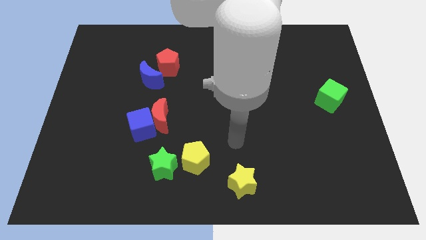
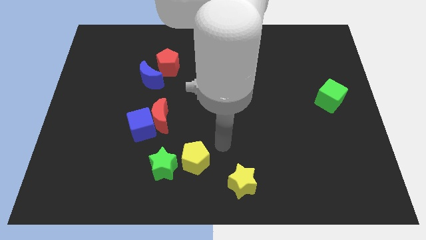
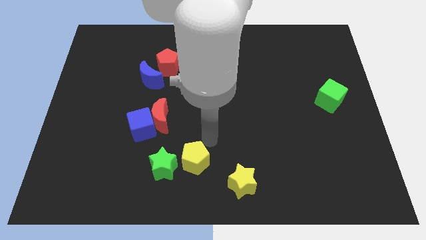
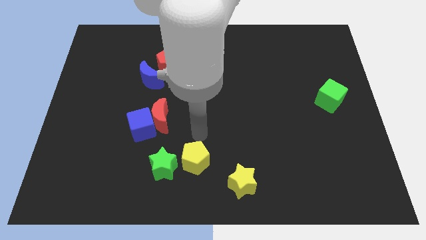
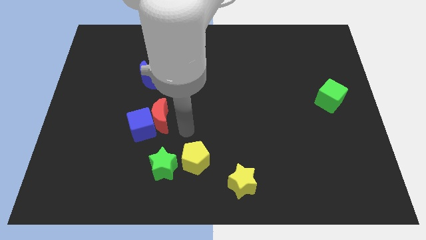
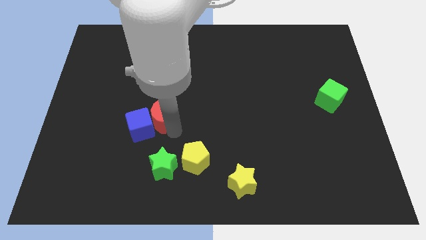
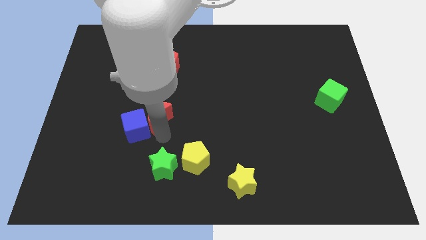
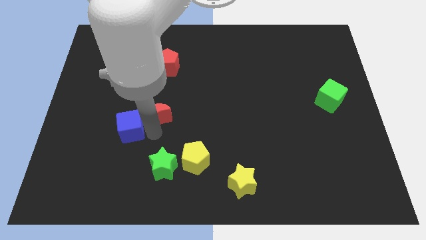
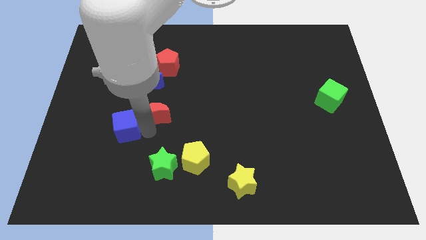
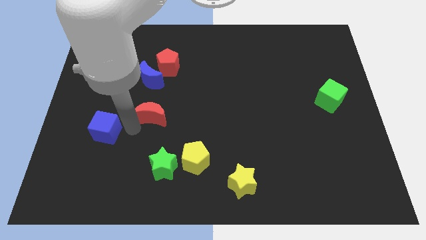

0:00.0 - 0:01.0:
separate the red moon from the blue cube

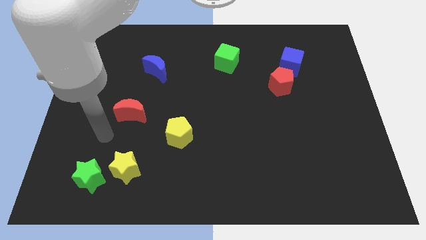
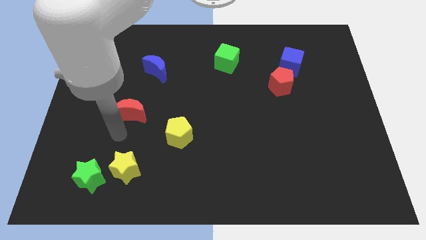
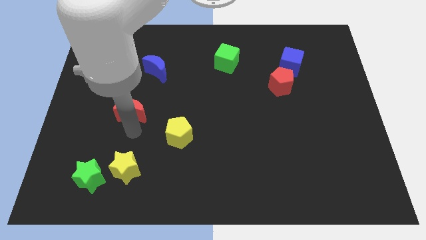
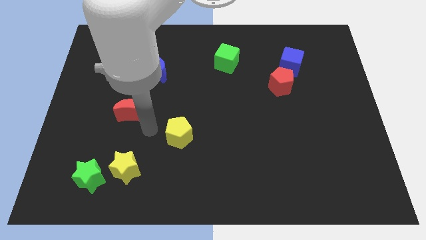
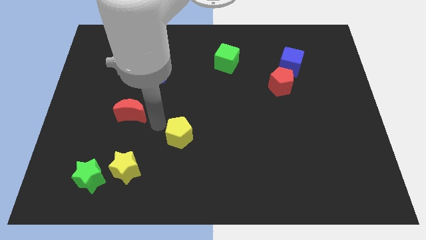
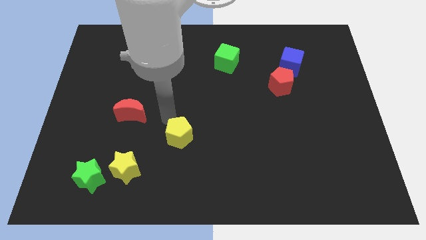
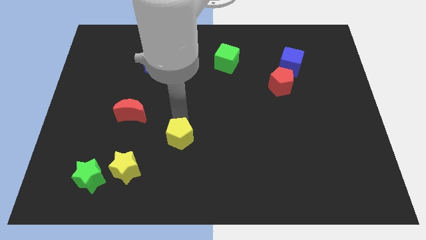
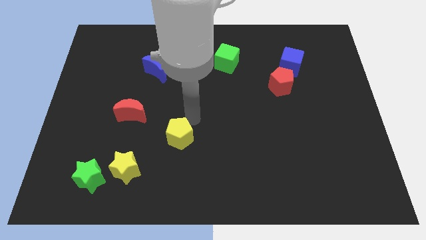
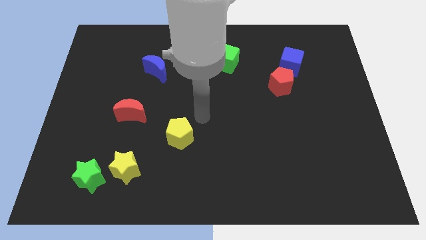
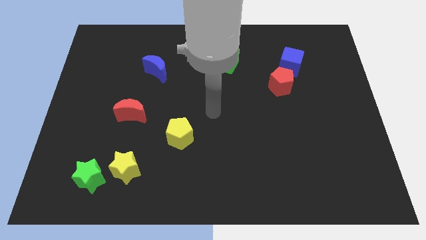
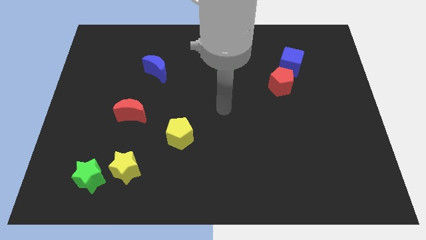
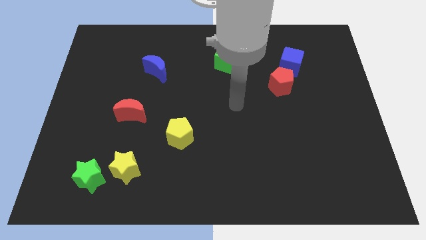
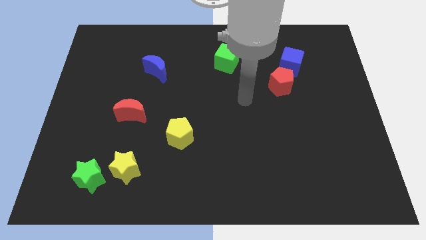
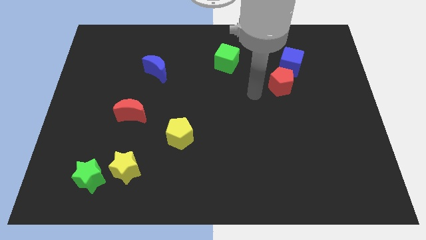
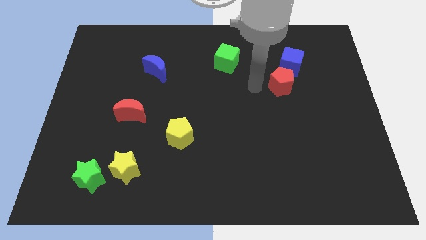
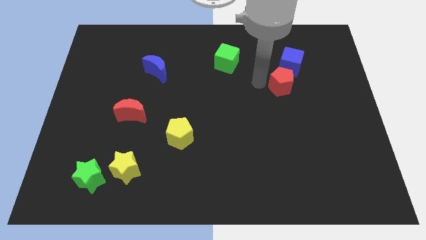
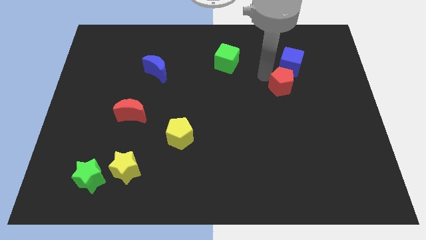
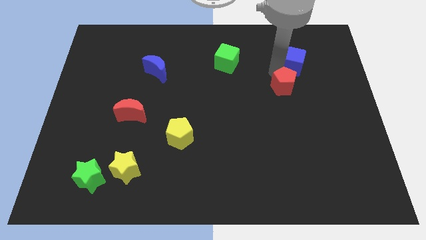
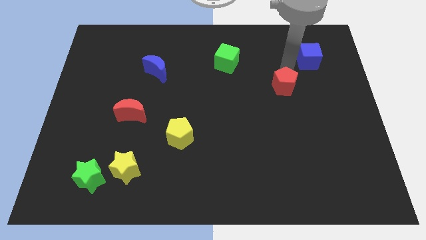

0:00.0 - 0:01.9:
move the red pentagon away from the blue cube

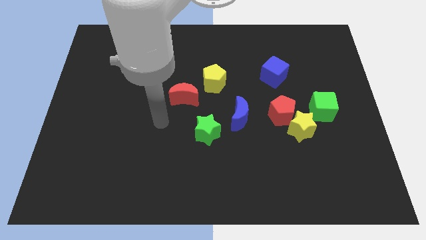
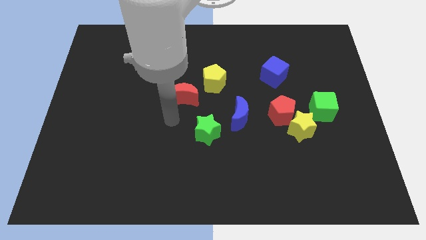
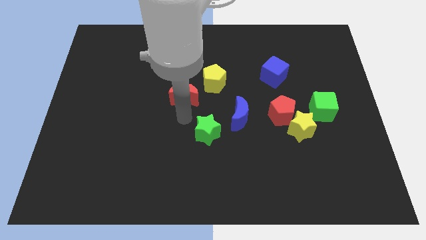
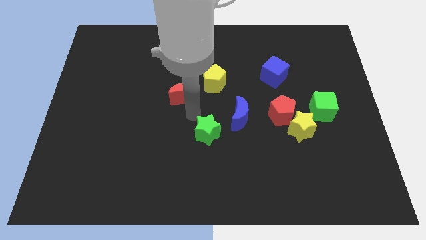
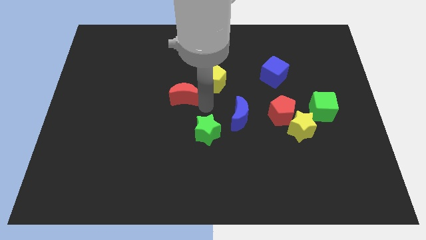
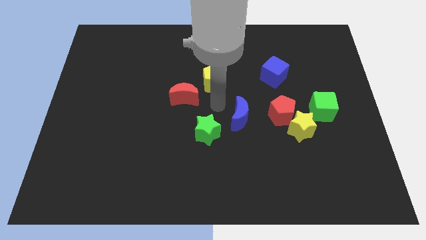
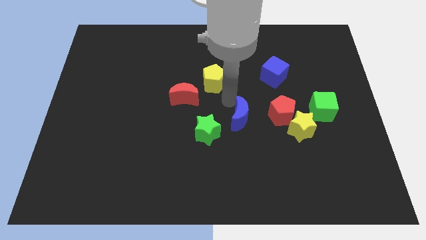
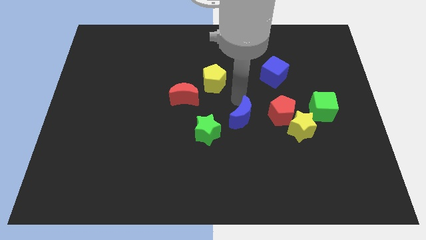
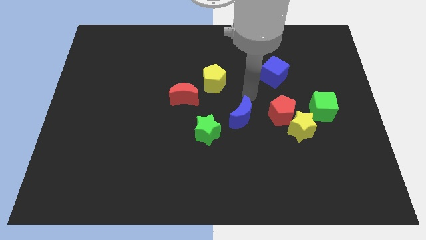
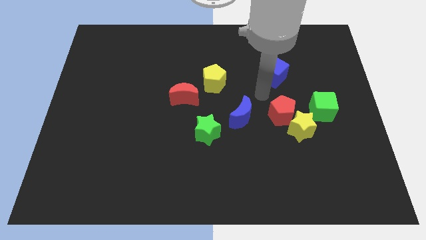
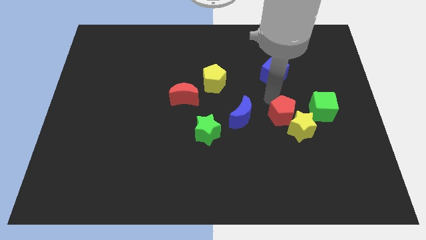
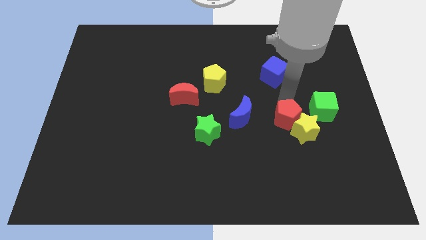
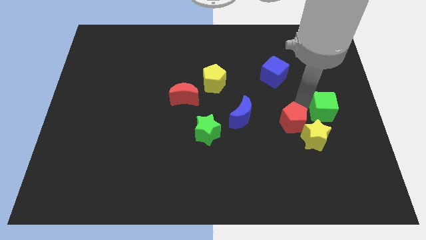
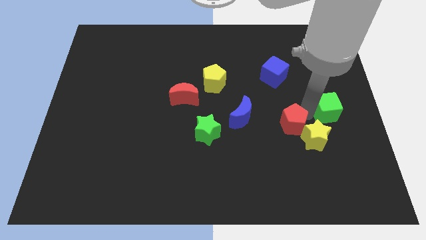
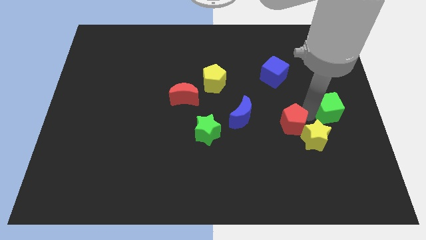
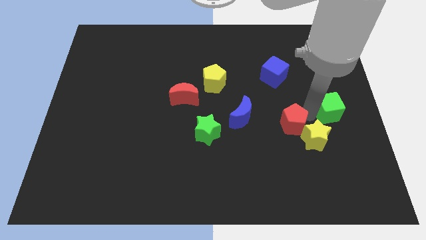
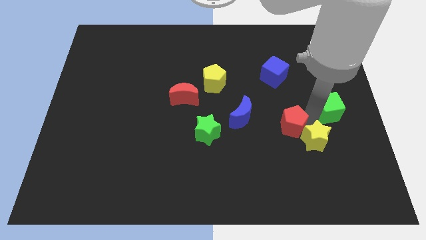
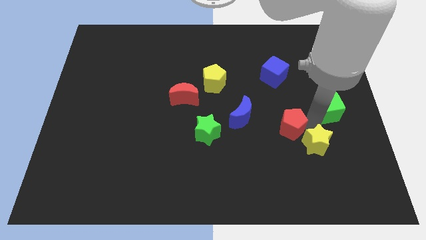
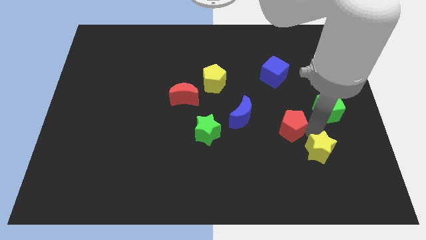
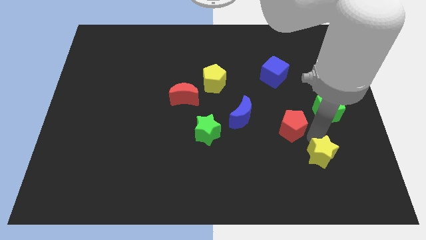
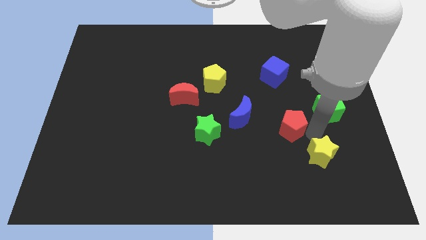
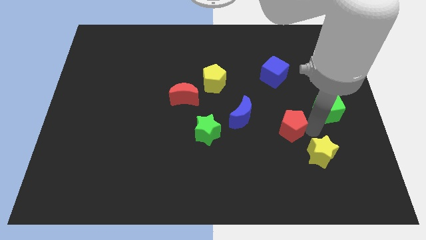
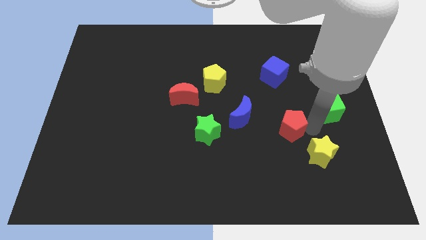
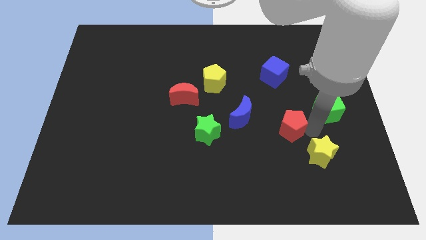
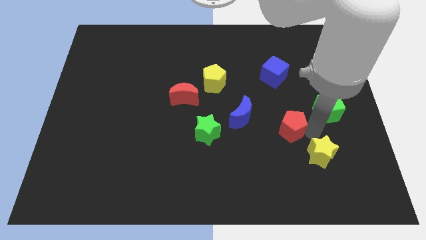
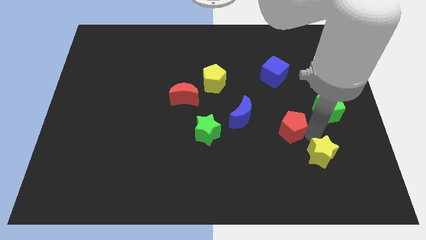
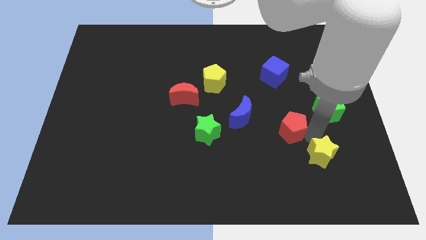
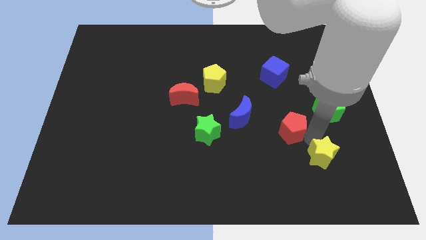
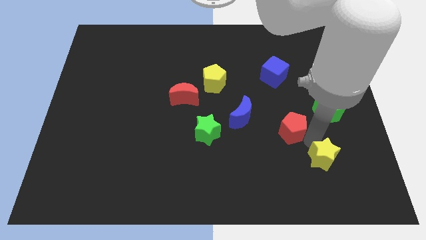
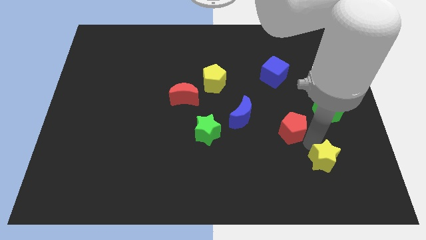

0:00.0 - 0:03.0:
separate the yellow star from the red pentagon and green cube

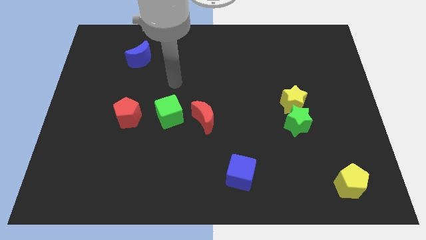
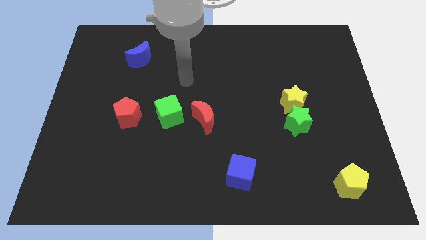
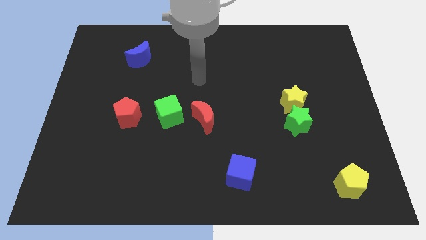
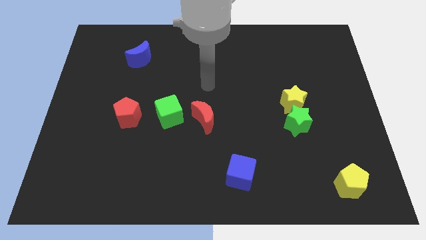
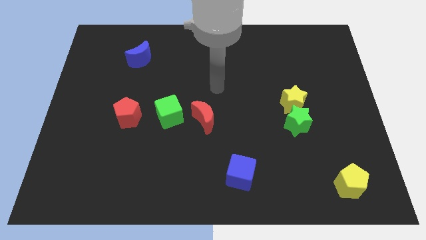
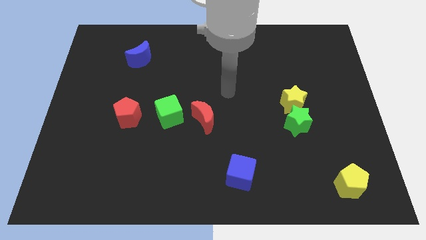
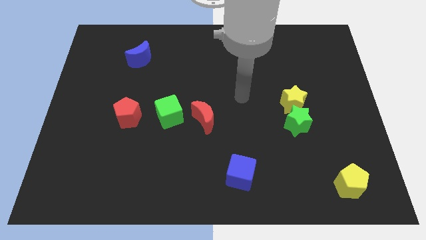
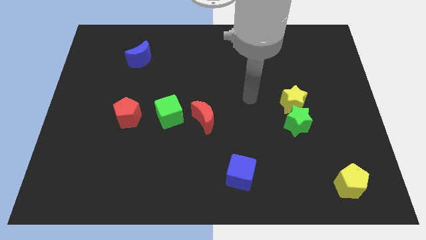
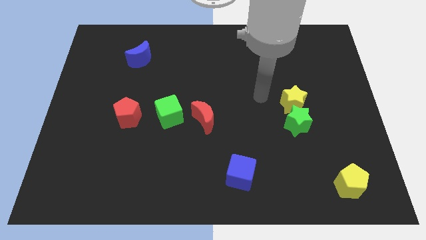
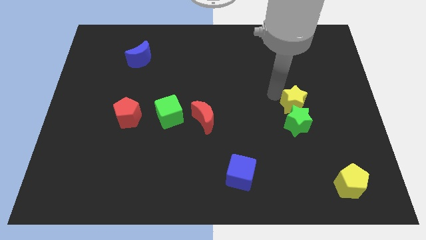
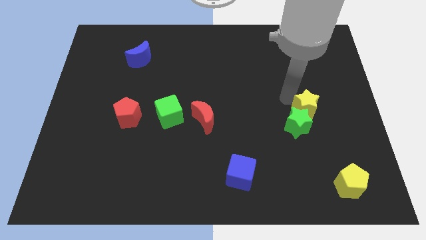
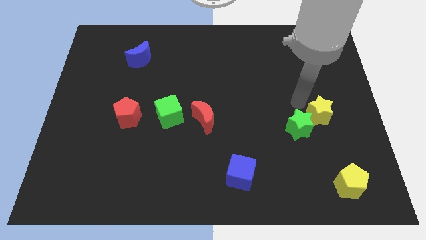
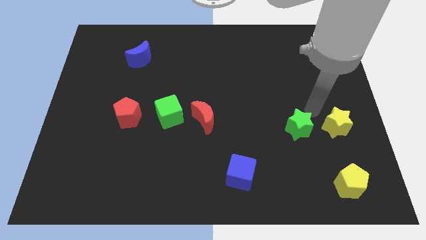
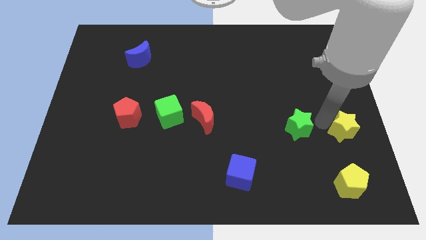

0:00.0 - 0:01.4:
pull the green star apart from the yellow star

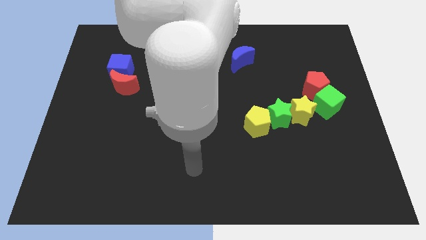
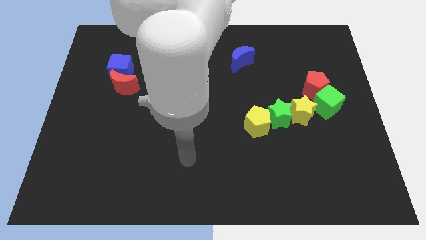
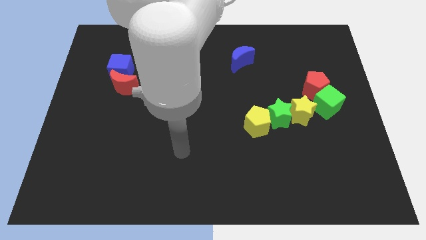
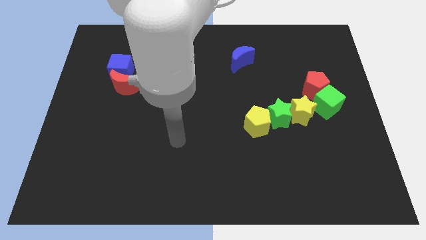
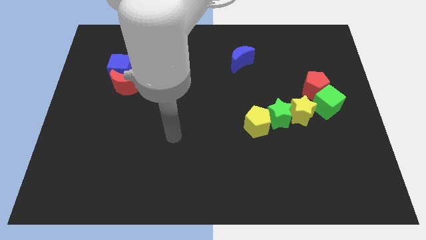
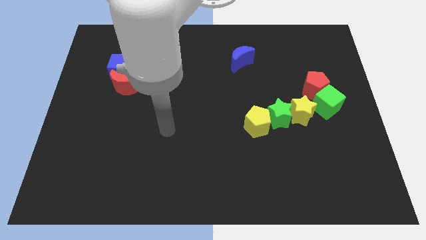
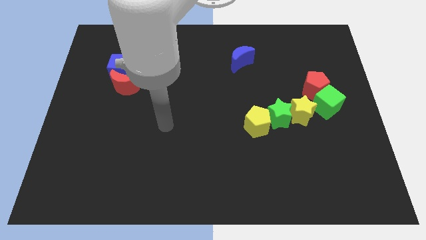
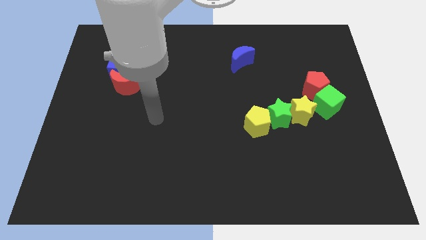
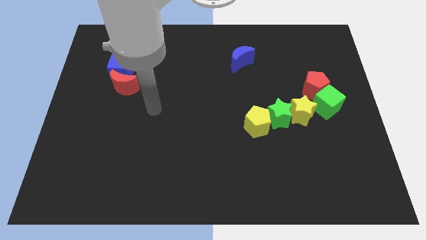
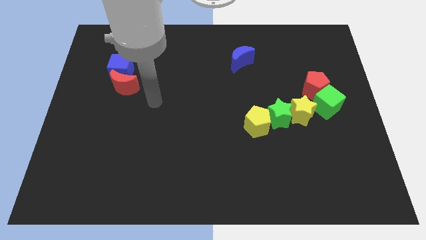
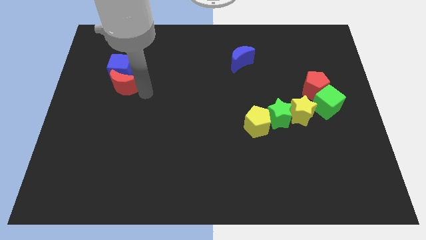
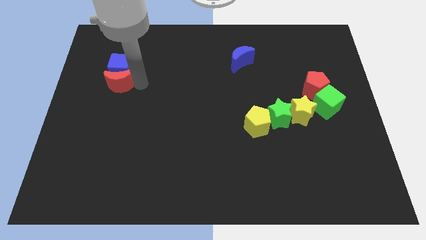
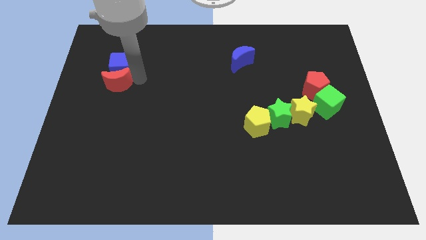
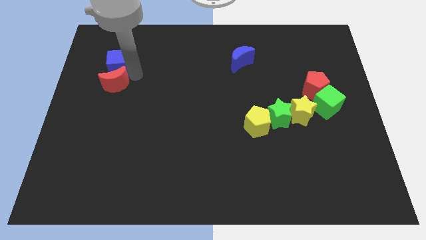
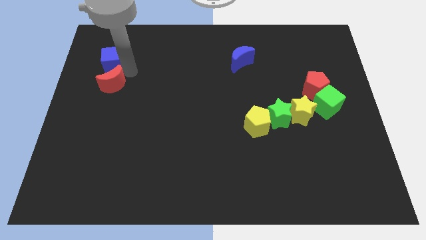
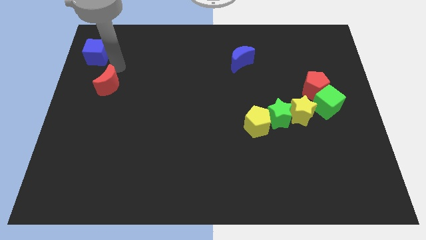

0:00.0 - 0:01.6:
pull the red moon apart from the blue cube

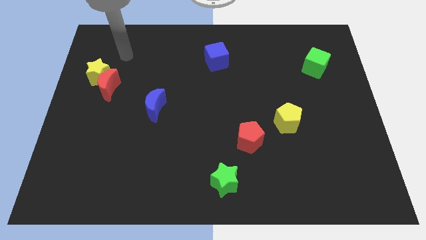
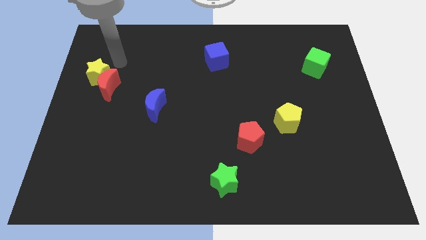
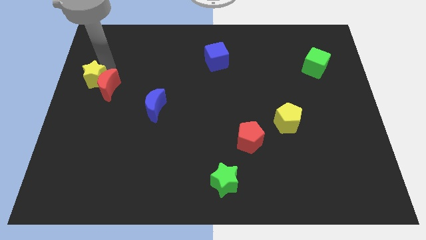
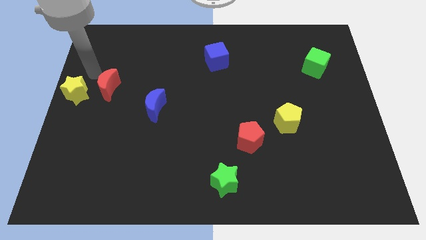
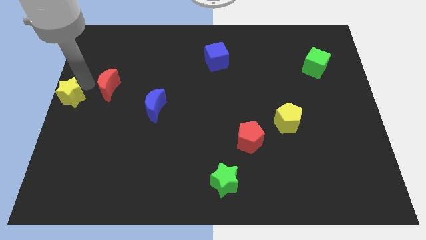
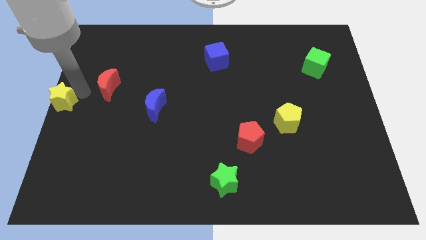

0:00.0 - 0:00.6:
move the red moon away from the yellow star
